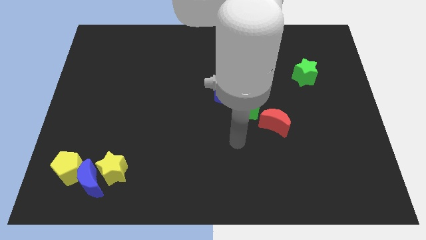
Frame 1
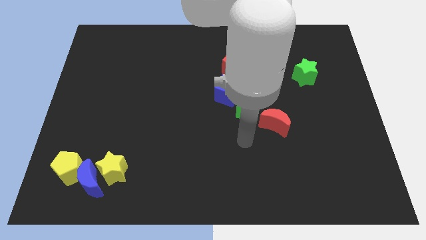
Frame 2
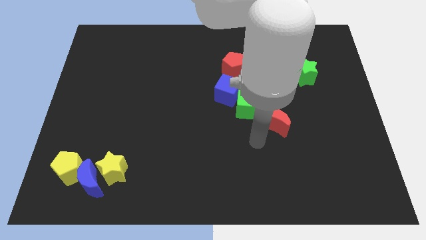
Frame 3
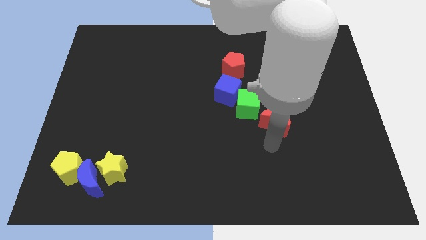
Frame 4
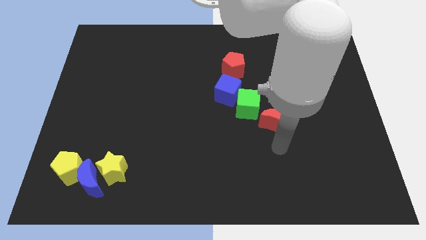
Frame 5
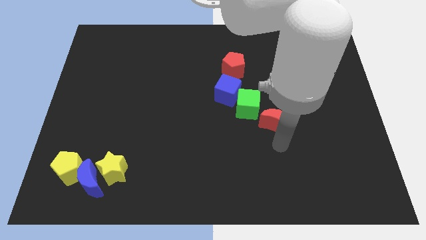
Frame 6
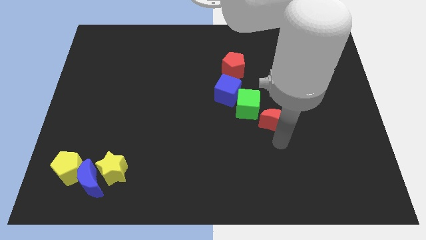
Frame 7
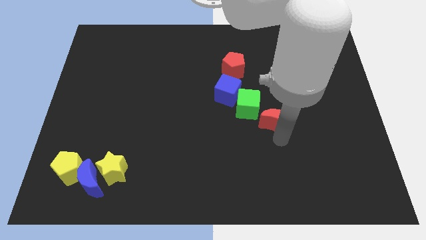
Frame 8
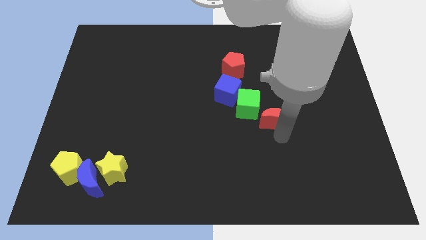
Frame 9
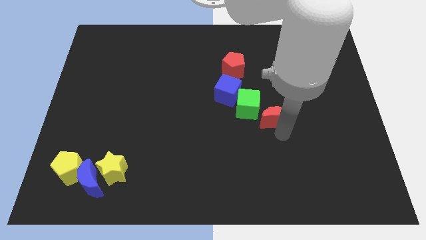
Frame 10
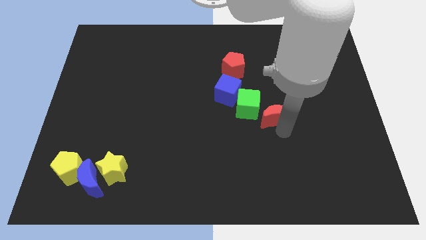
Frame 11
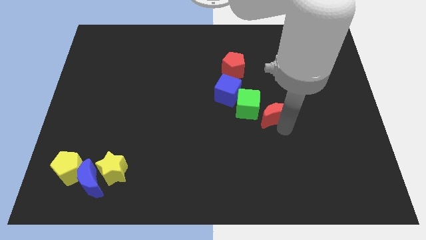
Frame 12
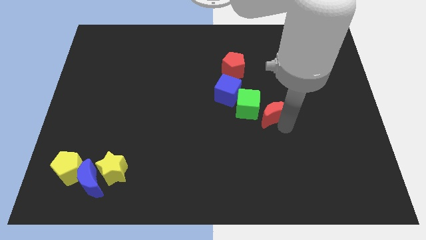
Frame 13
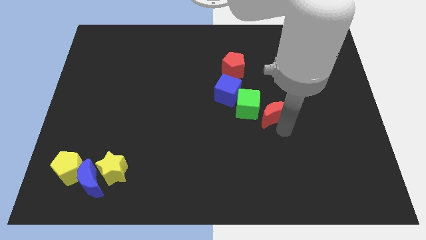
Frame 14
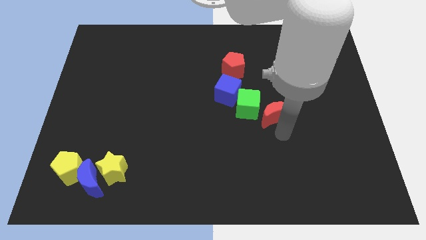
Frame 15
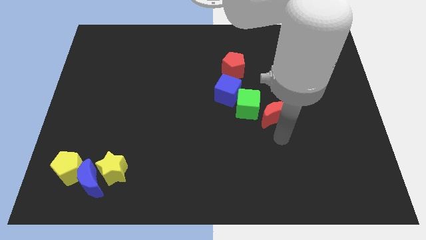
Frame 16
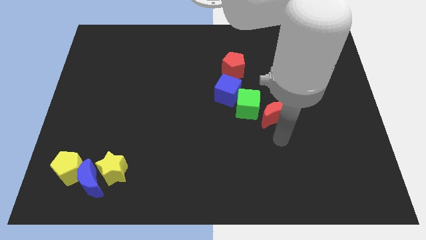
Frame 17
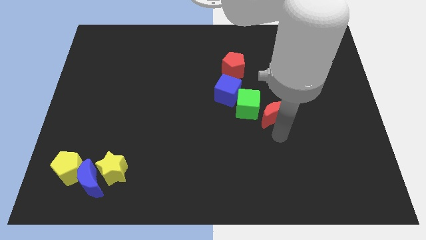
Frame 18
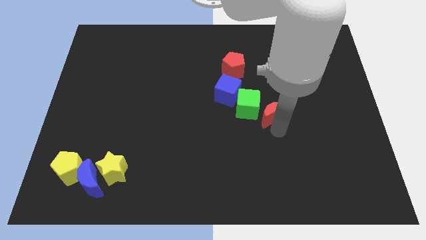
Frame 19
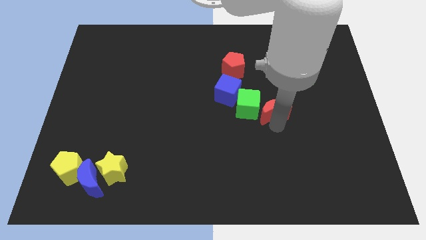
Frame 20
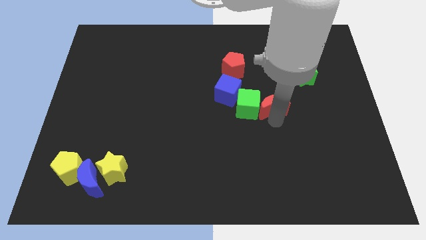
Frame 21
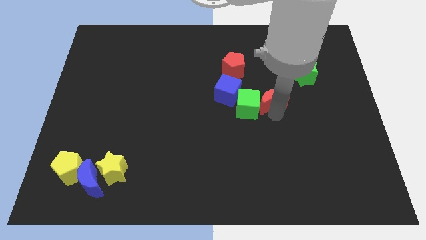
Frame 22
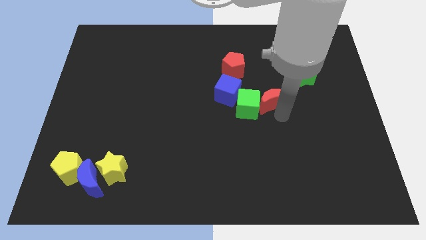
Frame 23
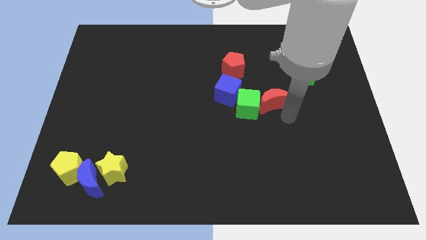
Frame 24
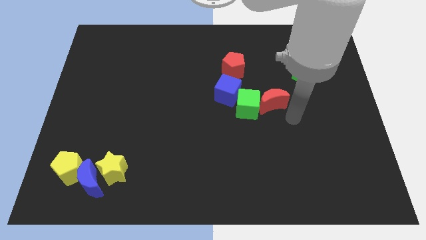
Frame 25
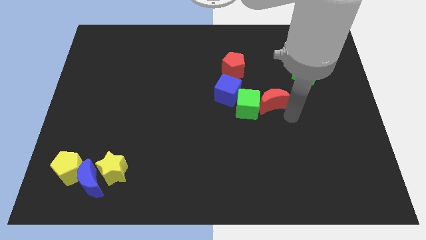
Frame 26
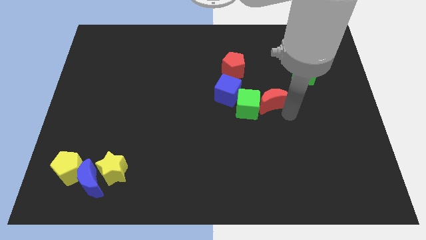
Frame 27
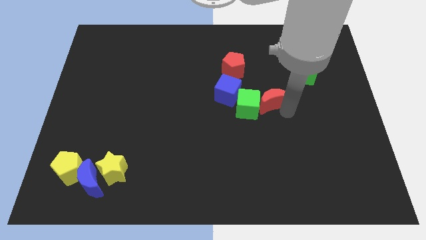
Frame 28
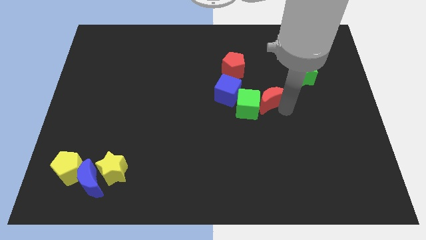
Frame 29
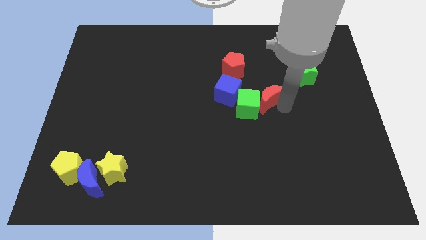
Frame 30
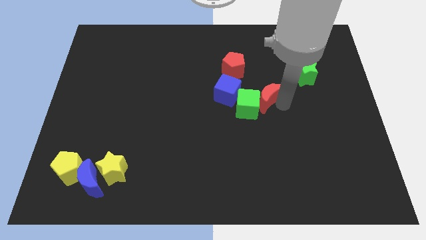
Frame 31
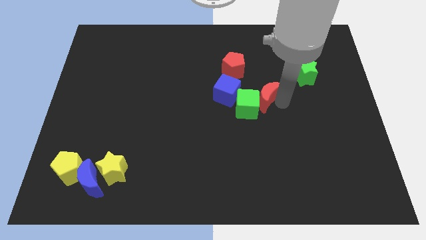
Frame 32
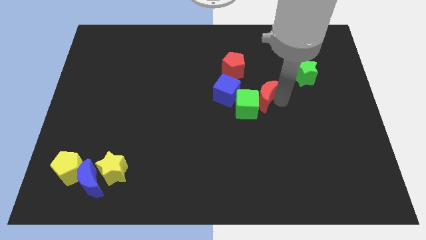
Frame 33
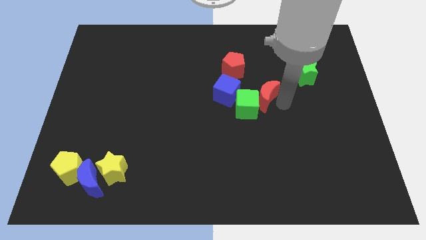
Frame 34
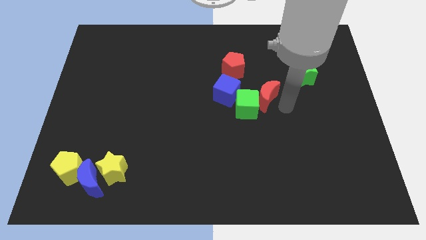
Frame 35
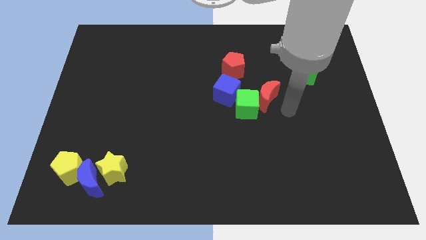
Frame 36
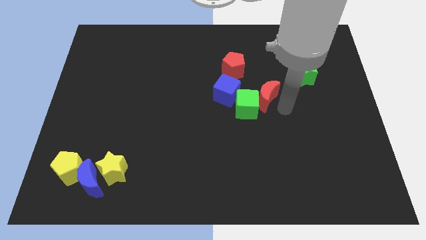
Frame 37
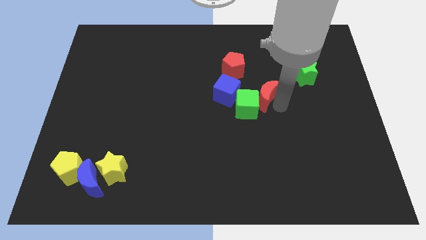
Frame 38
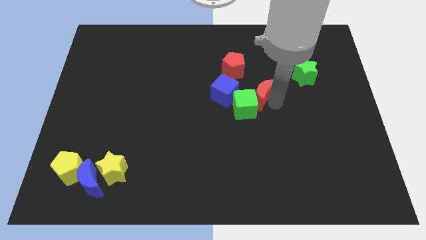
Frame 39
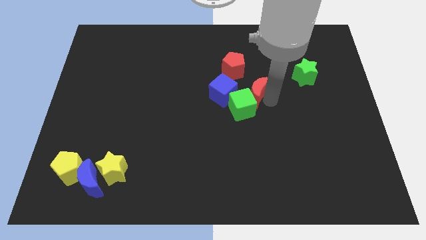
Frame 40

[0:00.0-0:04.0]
slide the red moon up and then to the left a little

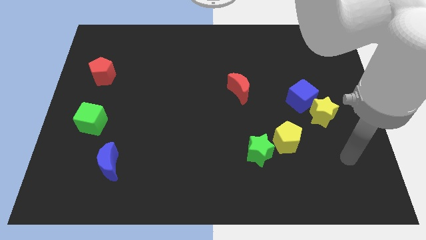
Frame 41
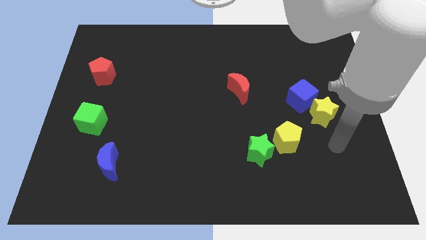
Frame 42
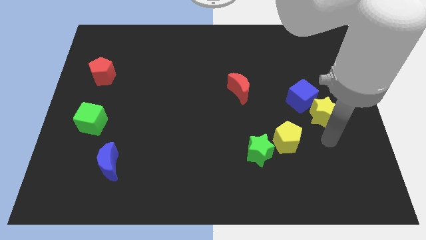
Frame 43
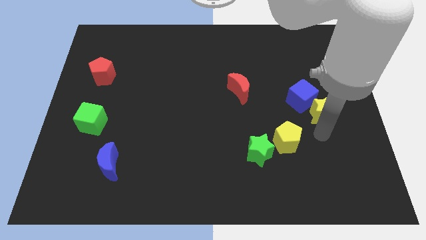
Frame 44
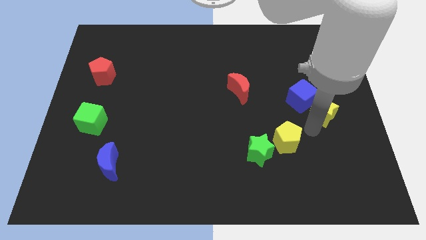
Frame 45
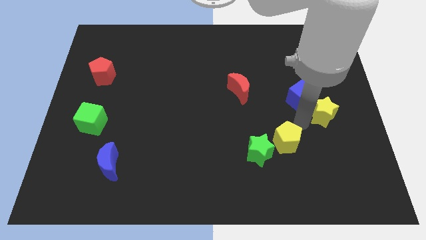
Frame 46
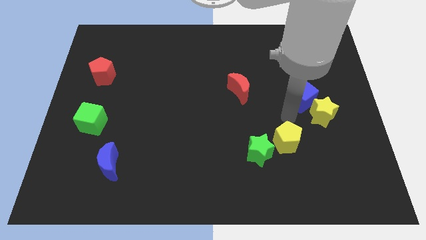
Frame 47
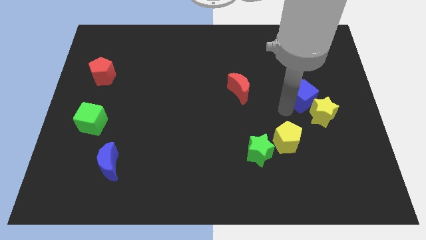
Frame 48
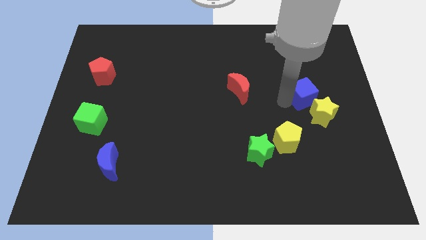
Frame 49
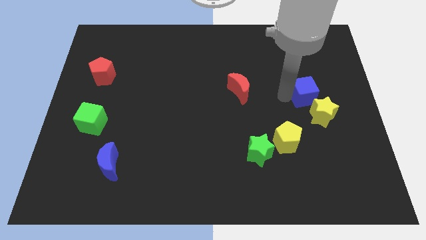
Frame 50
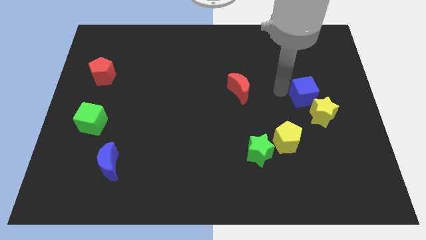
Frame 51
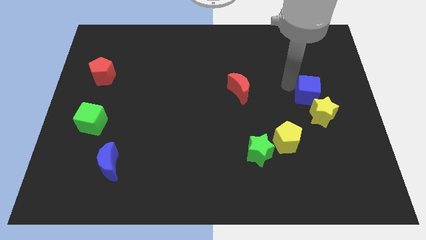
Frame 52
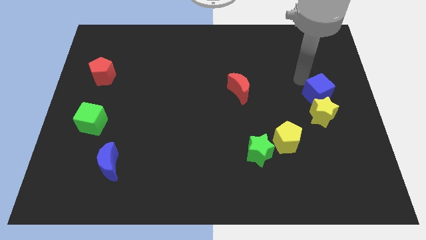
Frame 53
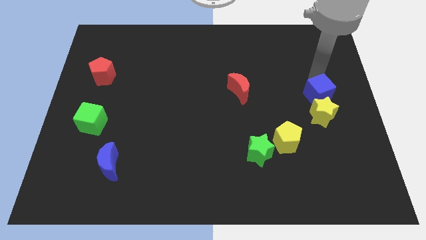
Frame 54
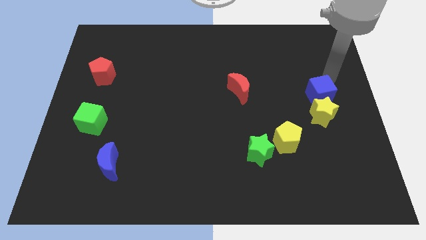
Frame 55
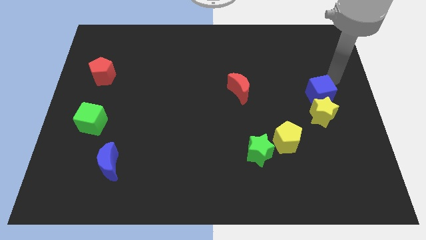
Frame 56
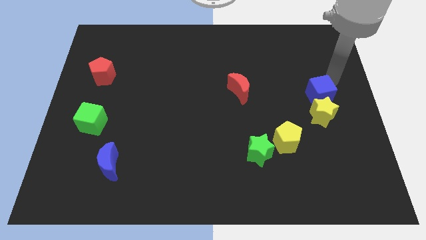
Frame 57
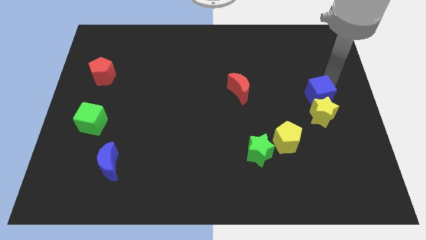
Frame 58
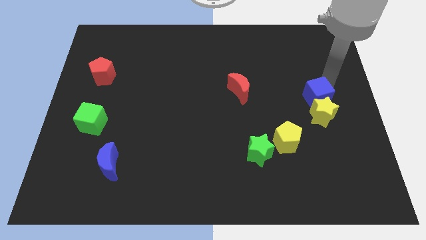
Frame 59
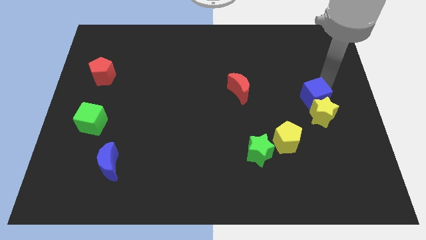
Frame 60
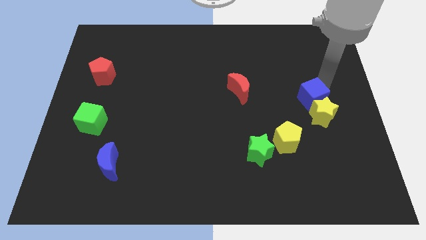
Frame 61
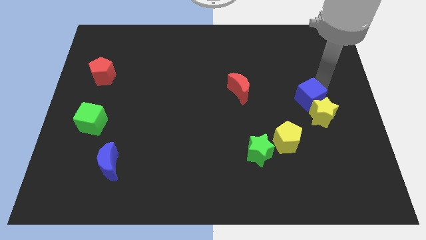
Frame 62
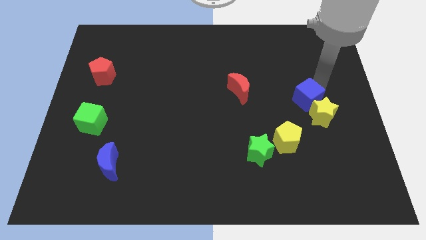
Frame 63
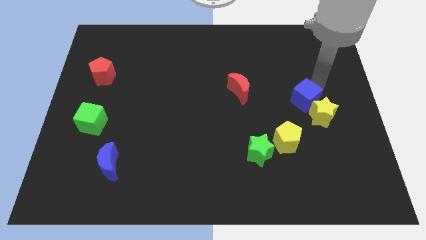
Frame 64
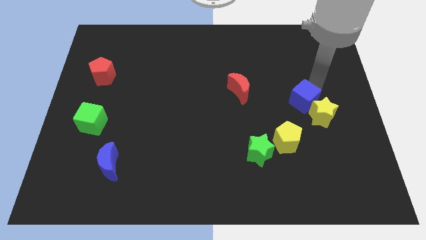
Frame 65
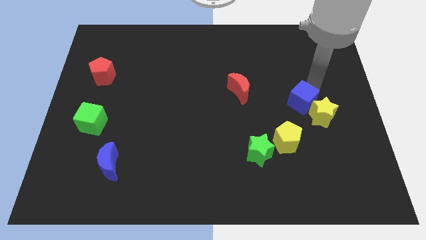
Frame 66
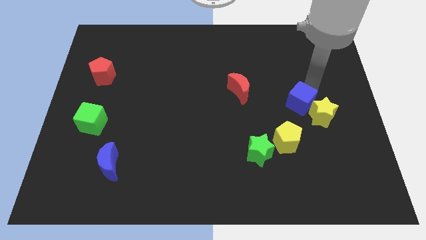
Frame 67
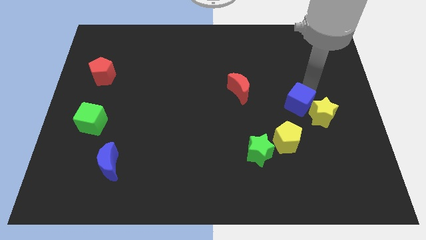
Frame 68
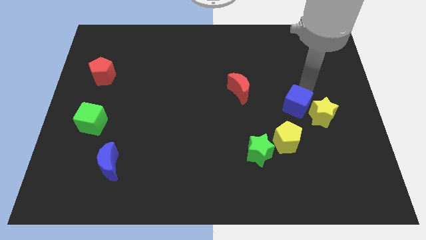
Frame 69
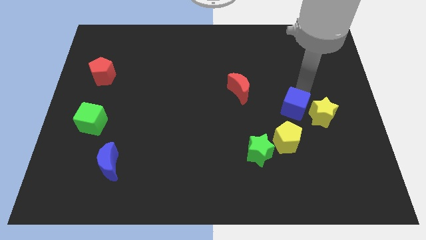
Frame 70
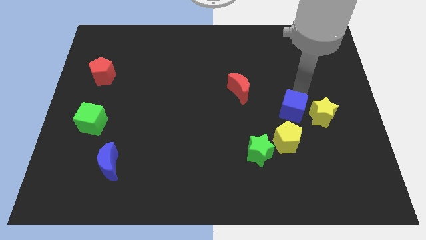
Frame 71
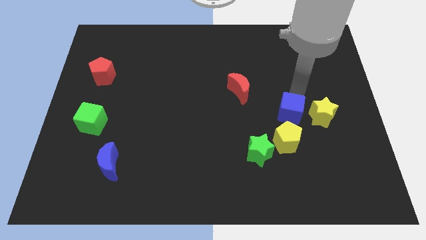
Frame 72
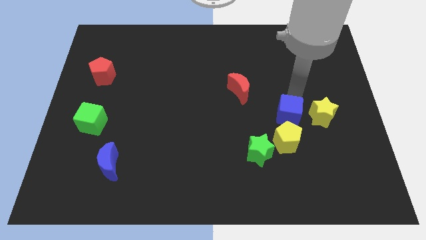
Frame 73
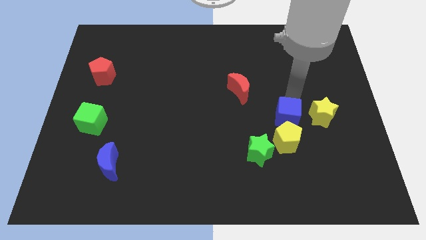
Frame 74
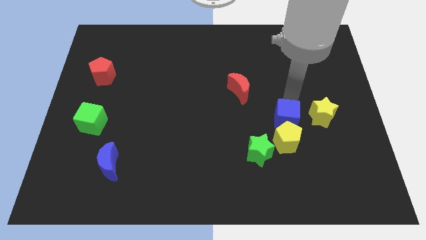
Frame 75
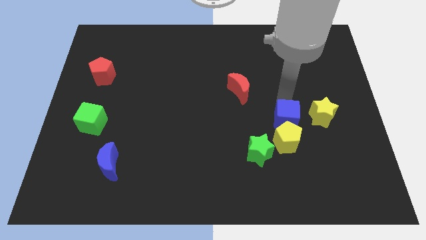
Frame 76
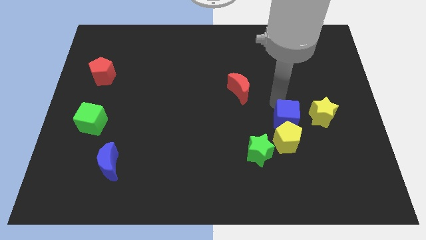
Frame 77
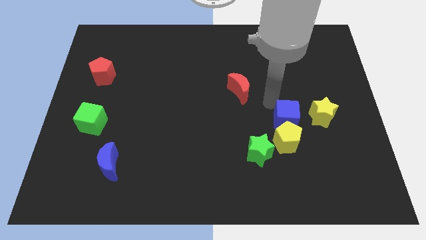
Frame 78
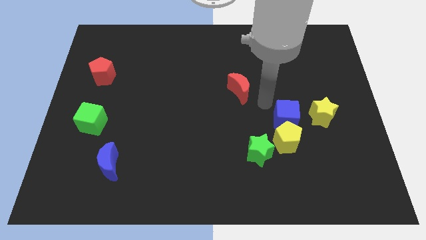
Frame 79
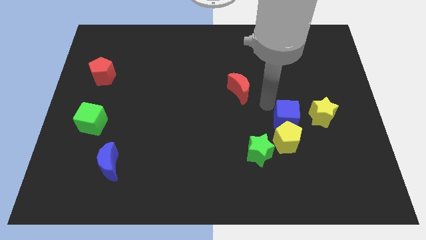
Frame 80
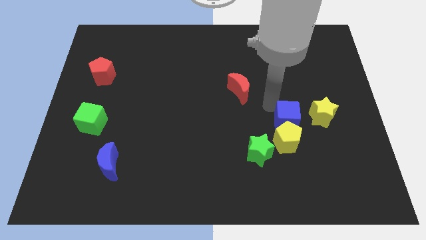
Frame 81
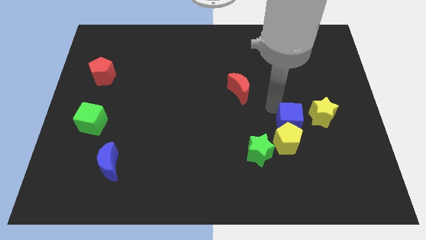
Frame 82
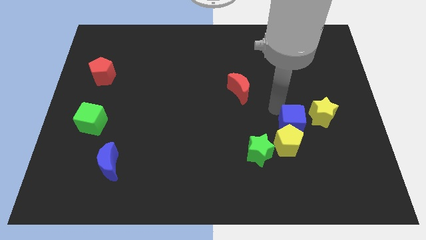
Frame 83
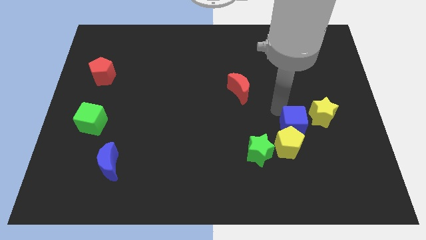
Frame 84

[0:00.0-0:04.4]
slide the blue cube a bit downwards
